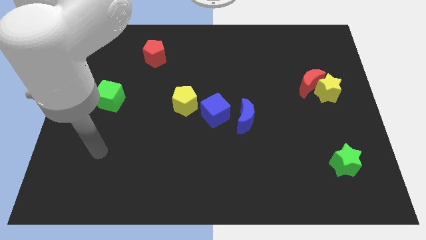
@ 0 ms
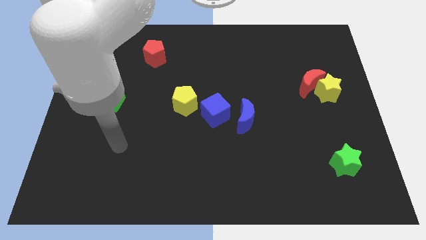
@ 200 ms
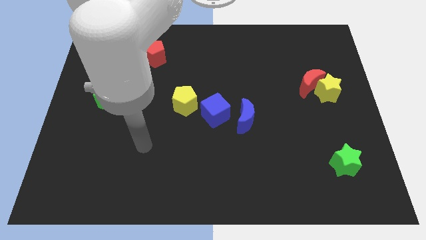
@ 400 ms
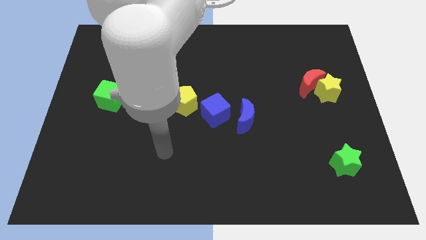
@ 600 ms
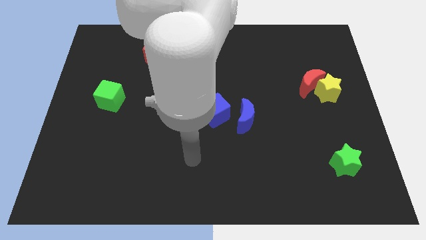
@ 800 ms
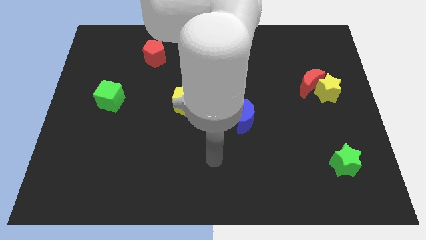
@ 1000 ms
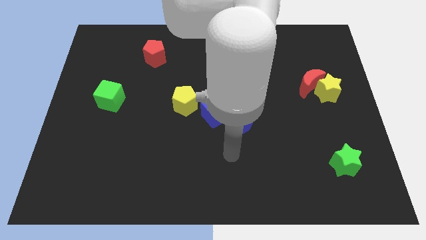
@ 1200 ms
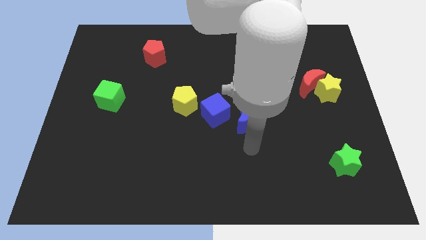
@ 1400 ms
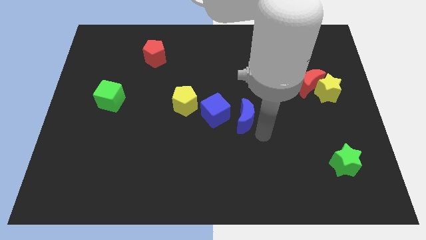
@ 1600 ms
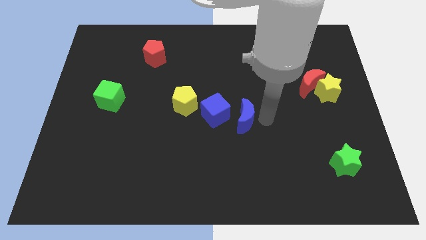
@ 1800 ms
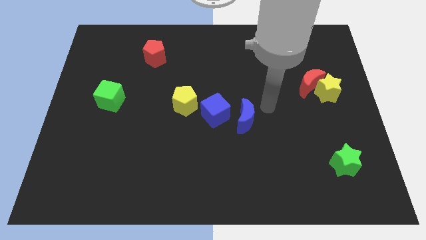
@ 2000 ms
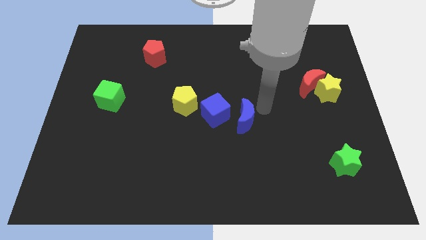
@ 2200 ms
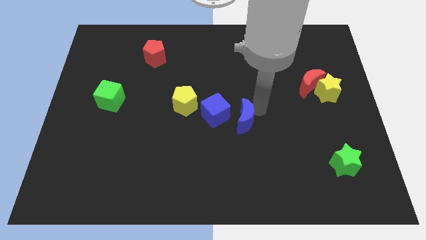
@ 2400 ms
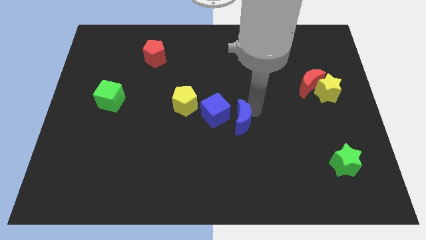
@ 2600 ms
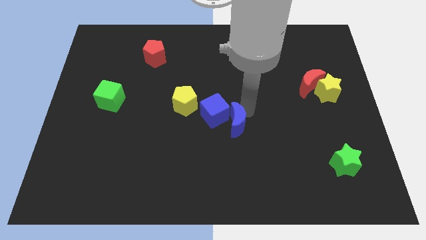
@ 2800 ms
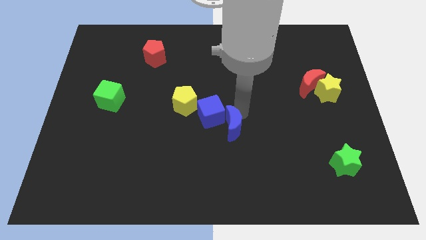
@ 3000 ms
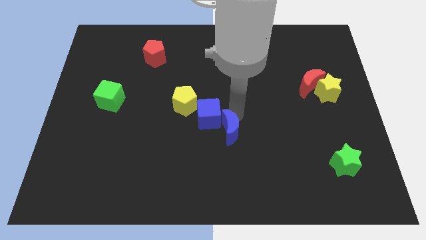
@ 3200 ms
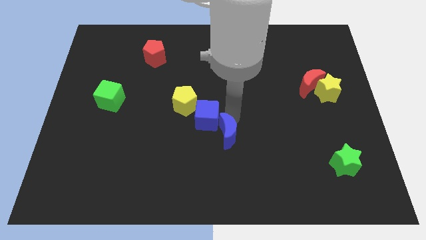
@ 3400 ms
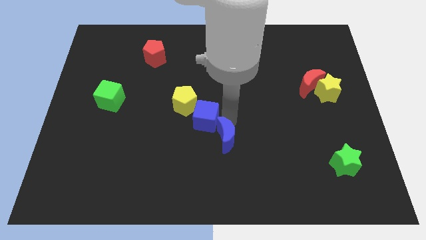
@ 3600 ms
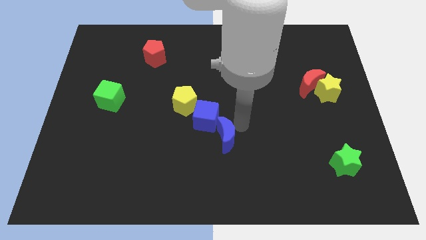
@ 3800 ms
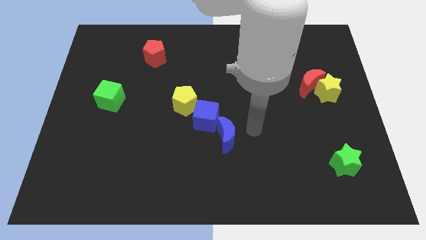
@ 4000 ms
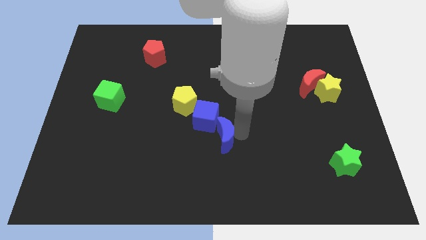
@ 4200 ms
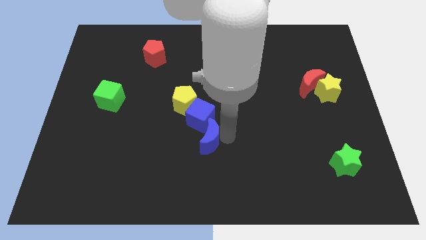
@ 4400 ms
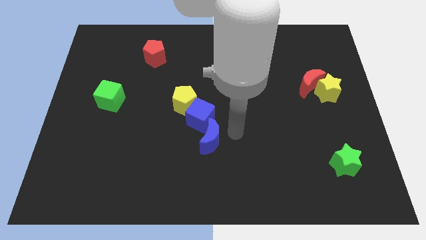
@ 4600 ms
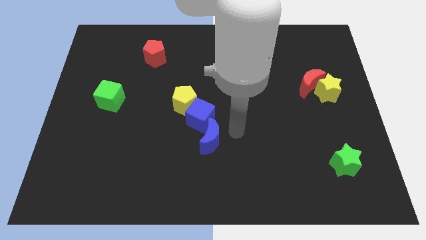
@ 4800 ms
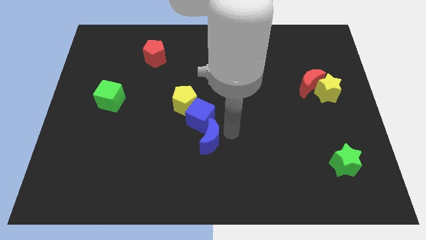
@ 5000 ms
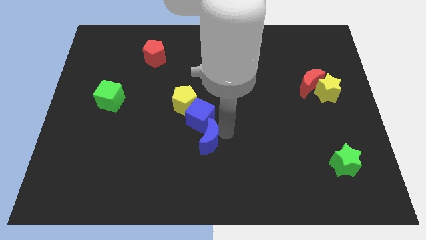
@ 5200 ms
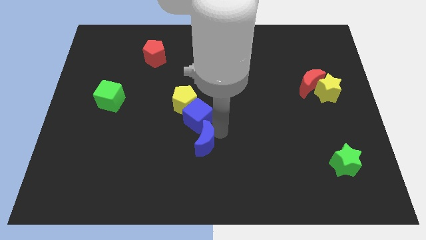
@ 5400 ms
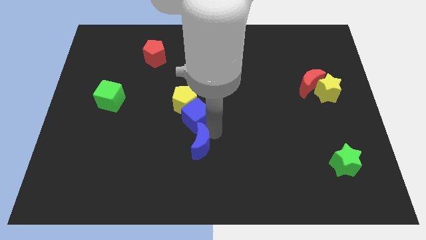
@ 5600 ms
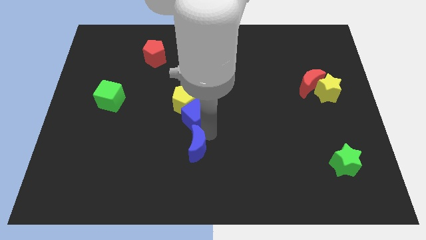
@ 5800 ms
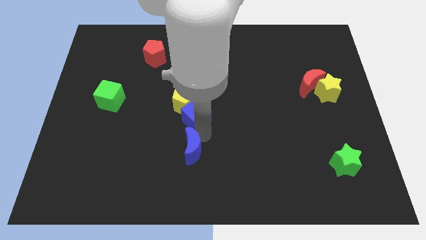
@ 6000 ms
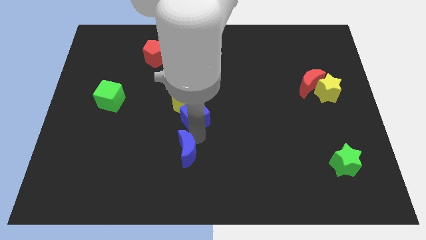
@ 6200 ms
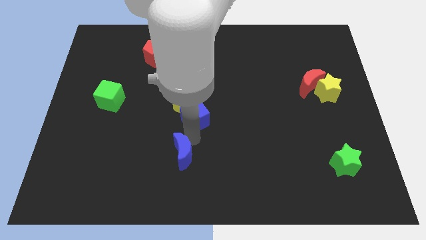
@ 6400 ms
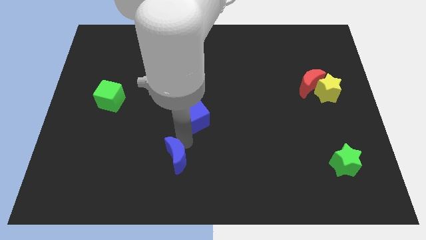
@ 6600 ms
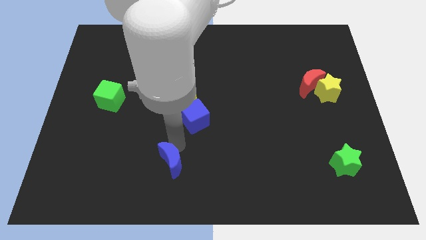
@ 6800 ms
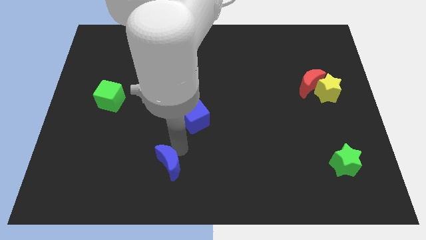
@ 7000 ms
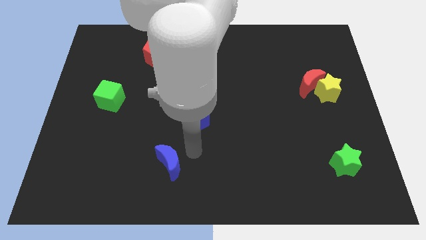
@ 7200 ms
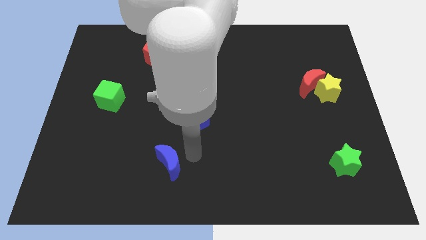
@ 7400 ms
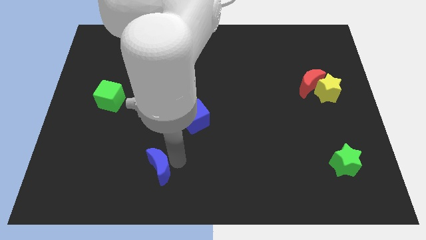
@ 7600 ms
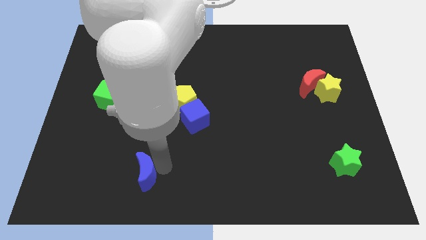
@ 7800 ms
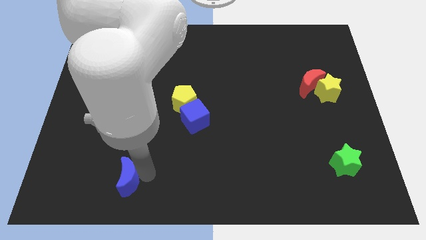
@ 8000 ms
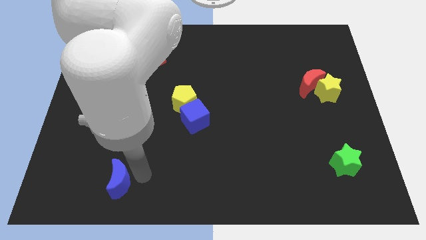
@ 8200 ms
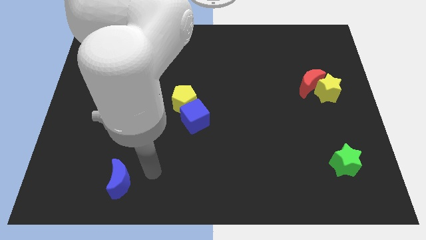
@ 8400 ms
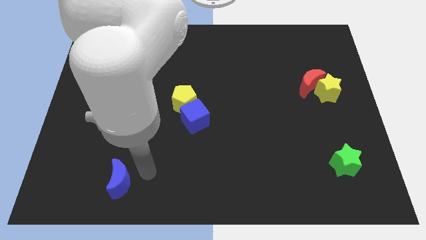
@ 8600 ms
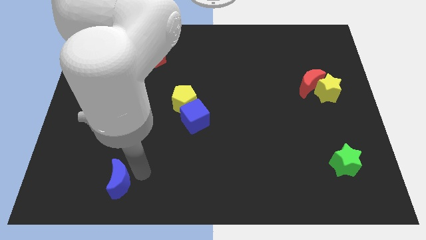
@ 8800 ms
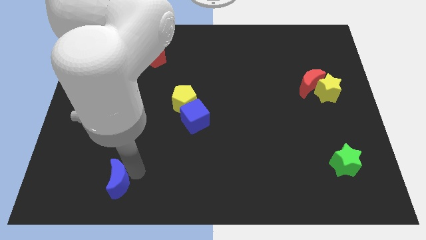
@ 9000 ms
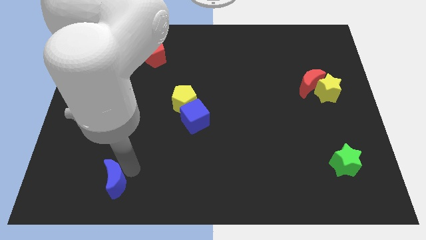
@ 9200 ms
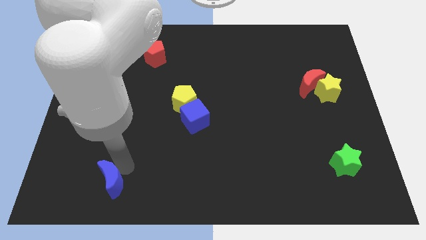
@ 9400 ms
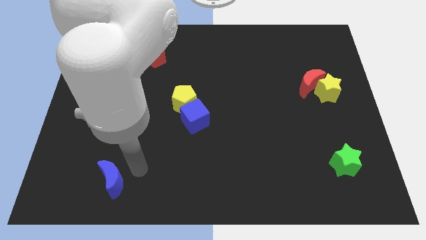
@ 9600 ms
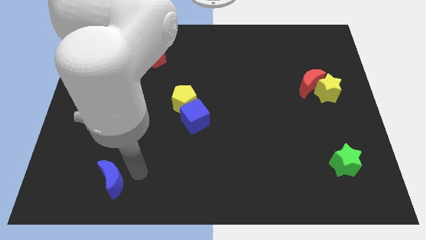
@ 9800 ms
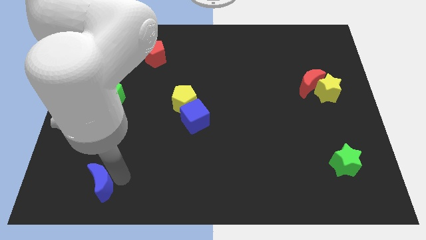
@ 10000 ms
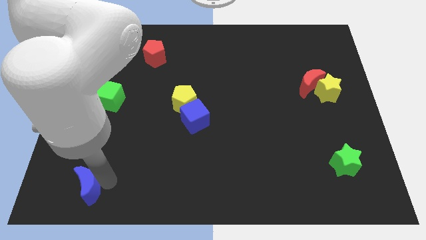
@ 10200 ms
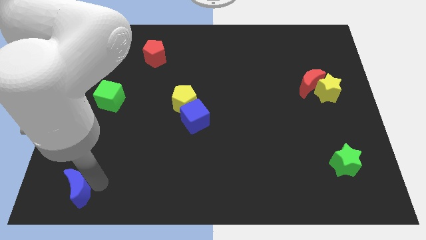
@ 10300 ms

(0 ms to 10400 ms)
push the blue moon to the bottom left of the board

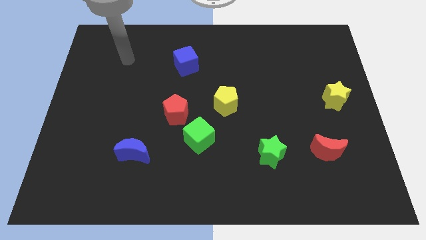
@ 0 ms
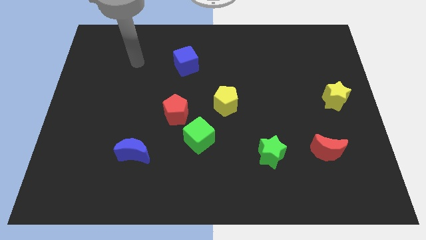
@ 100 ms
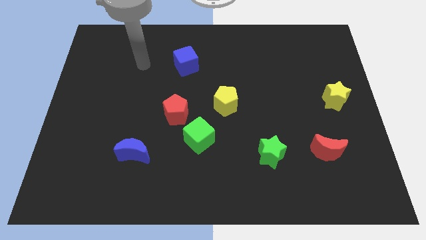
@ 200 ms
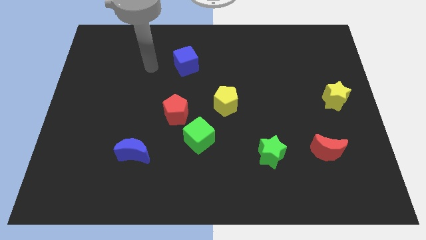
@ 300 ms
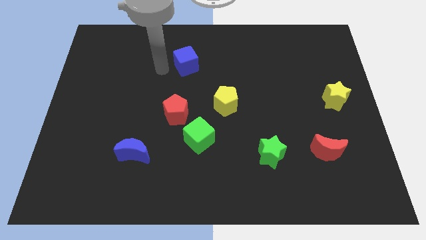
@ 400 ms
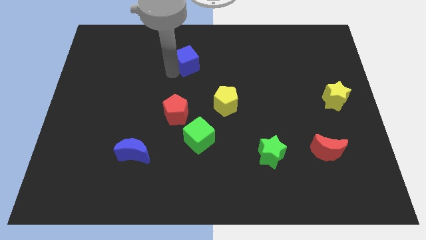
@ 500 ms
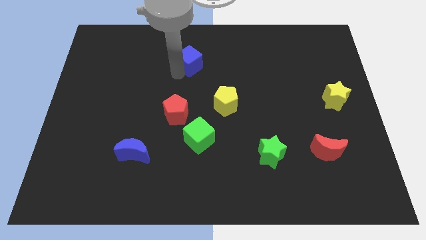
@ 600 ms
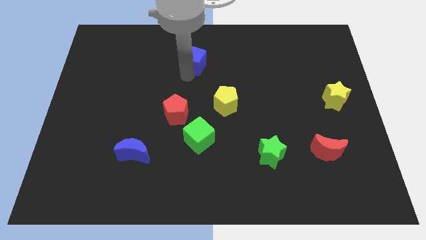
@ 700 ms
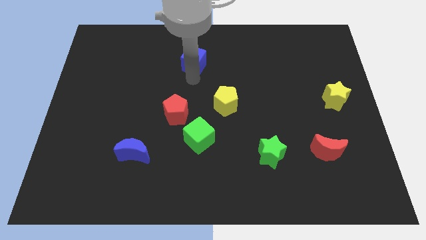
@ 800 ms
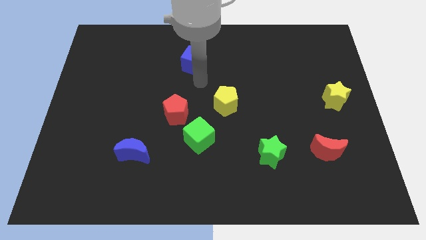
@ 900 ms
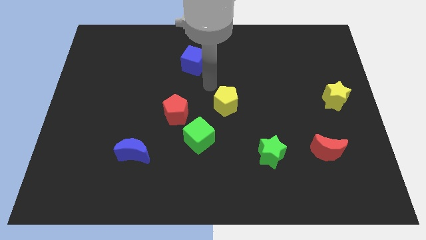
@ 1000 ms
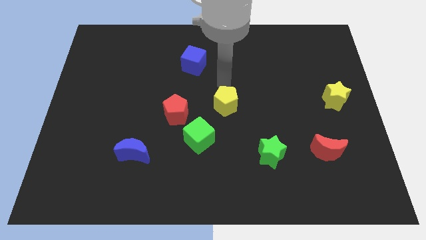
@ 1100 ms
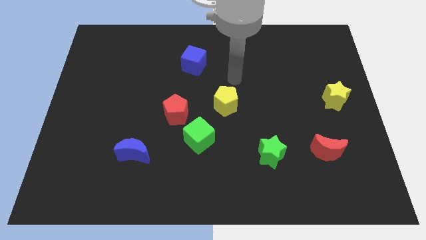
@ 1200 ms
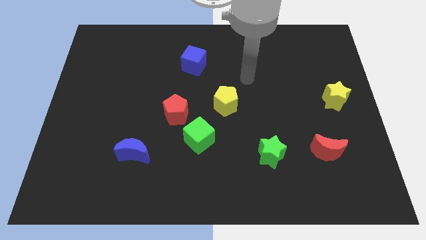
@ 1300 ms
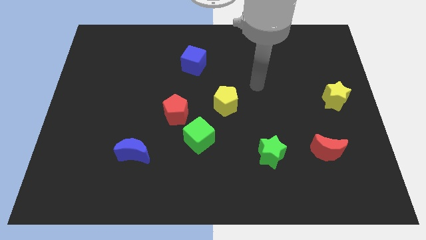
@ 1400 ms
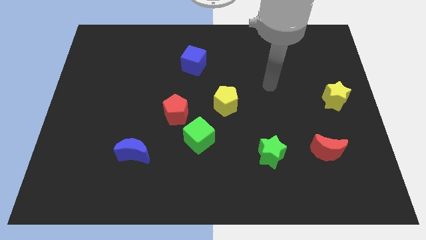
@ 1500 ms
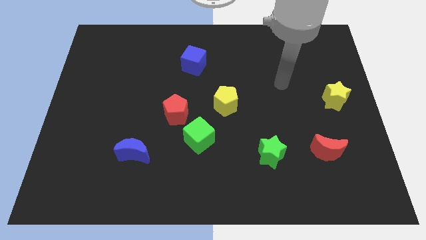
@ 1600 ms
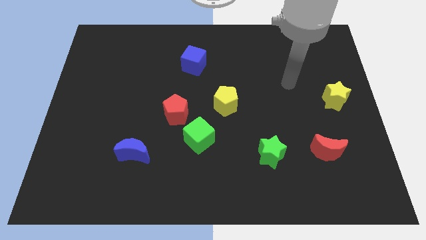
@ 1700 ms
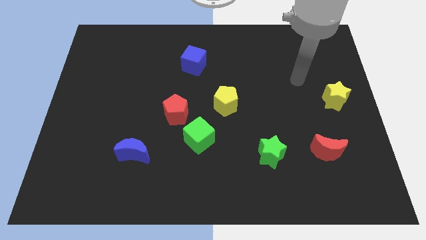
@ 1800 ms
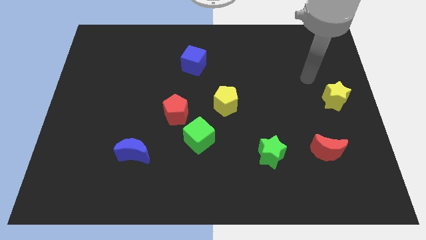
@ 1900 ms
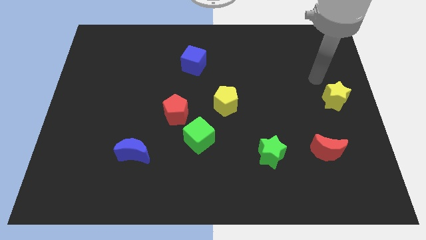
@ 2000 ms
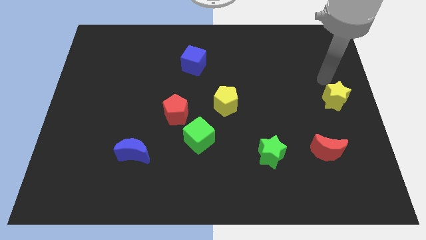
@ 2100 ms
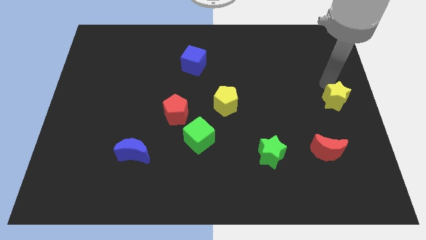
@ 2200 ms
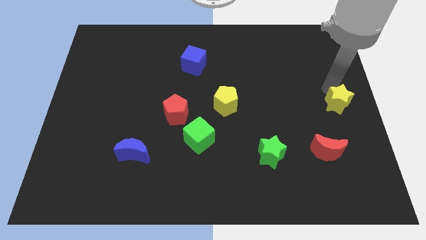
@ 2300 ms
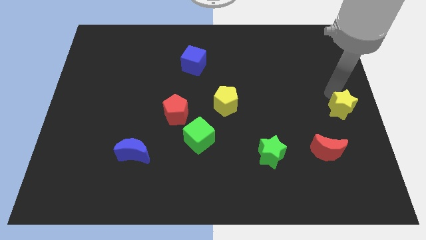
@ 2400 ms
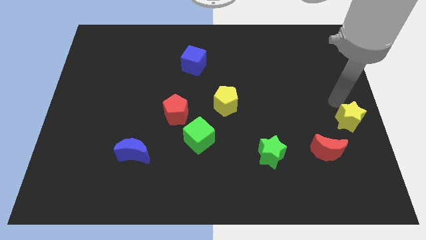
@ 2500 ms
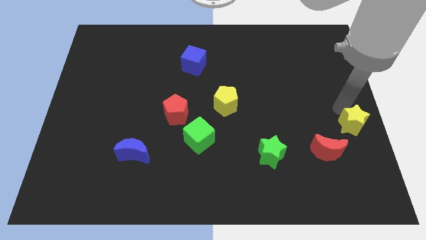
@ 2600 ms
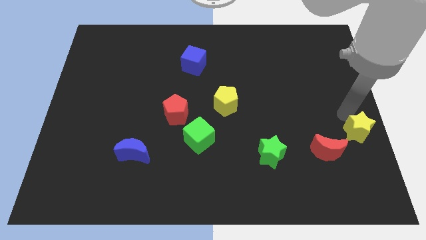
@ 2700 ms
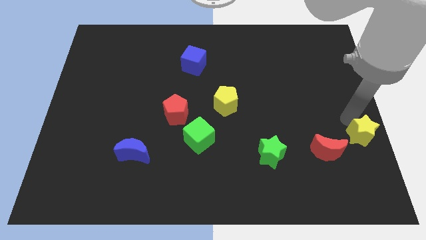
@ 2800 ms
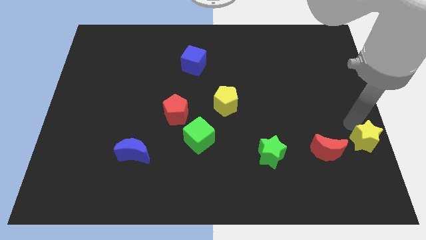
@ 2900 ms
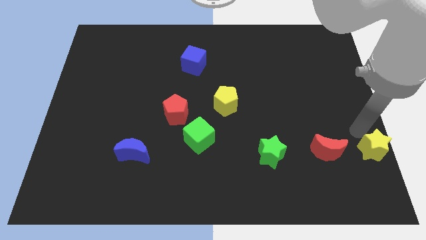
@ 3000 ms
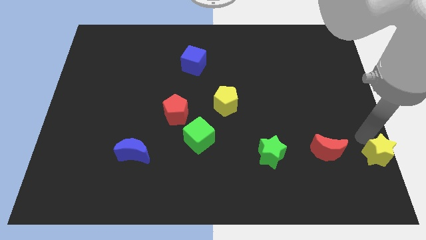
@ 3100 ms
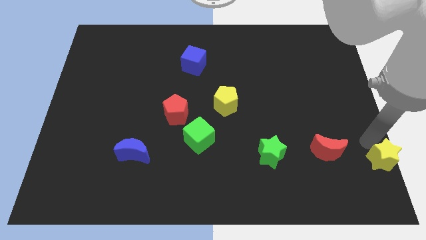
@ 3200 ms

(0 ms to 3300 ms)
push the yellow star to the bottom right corner
